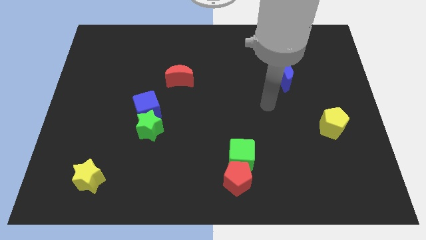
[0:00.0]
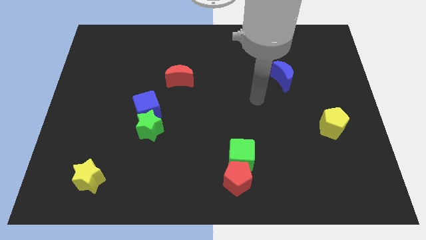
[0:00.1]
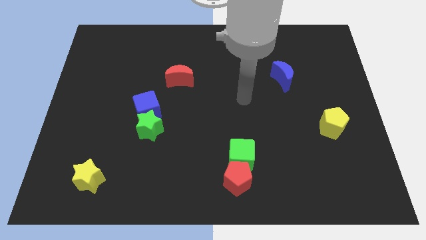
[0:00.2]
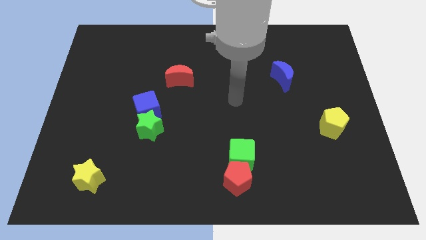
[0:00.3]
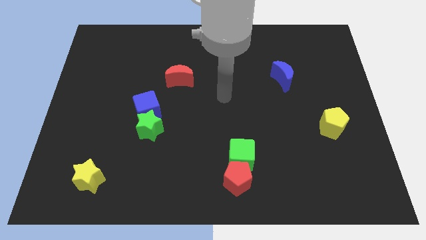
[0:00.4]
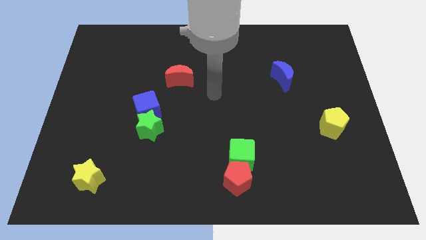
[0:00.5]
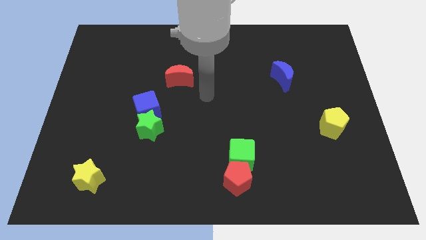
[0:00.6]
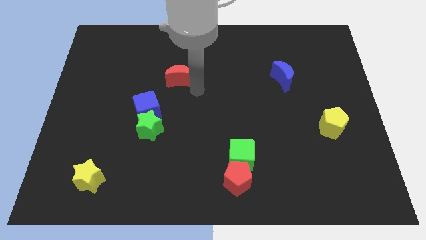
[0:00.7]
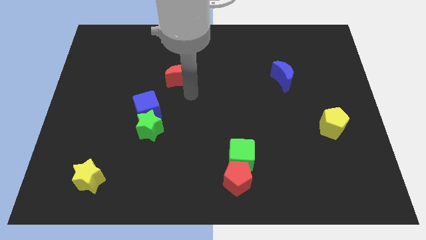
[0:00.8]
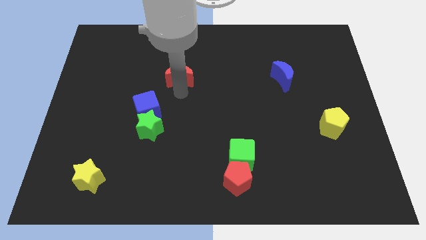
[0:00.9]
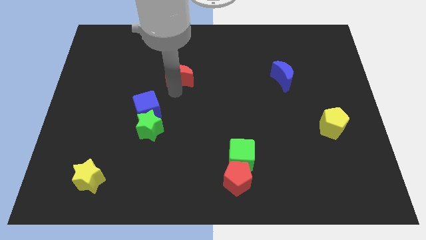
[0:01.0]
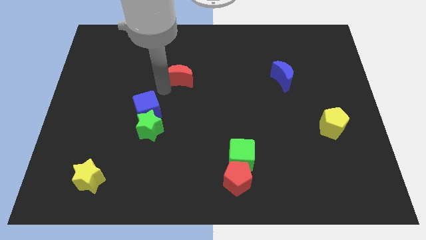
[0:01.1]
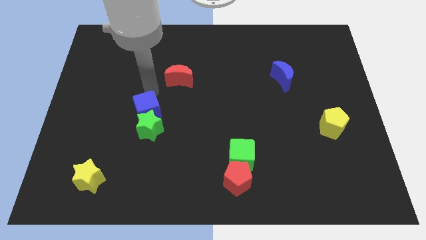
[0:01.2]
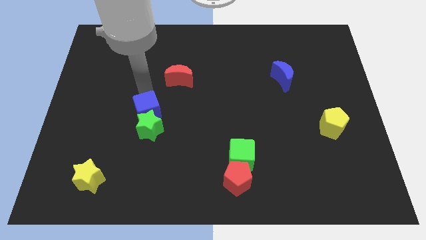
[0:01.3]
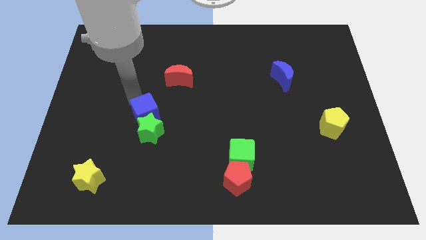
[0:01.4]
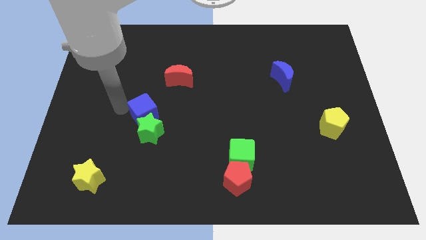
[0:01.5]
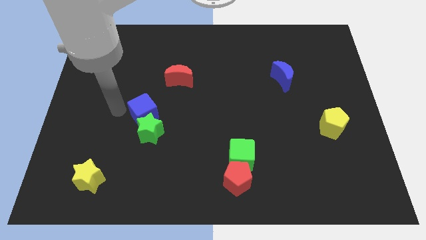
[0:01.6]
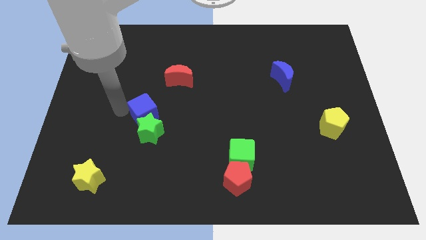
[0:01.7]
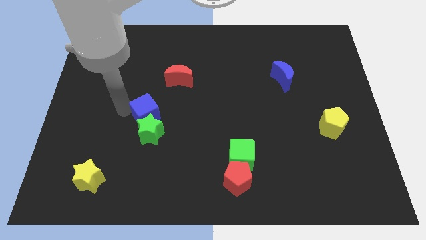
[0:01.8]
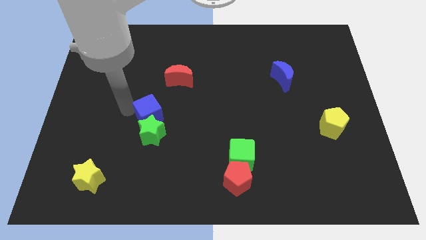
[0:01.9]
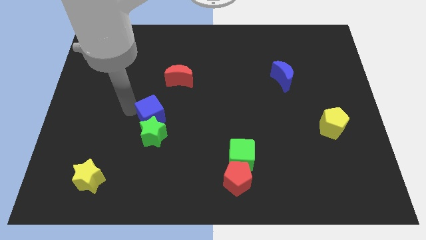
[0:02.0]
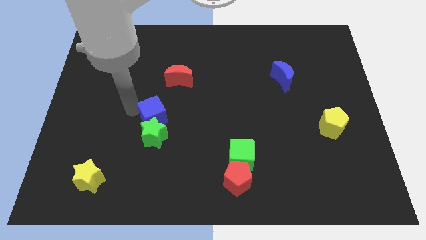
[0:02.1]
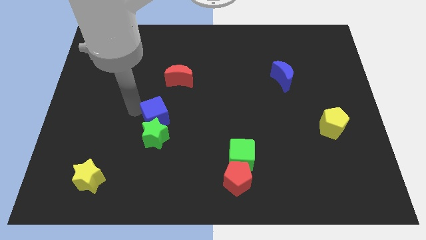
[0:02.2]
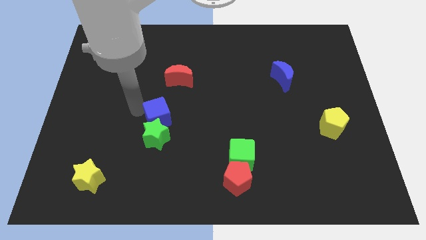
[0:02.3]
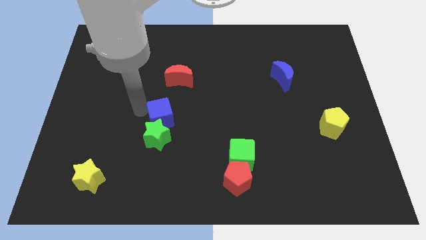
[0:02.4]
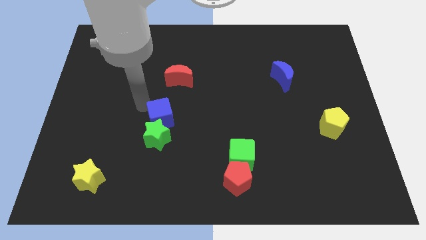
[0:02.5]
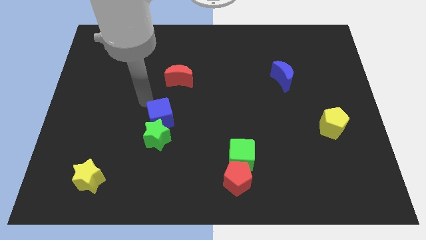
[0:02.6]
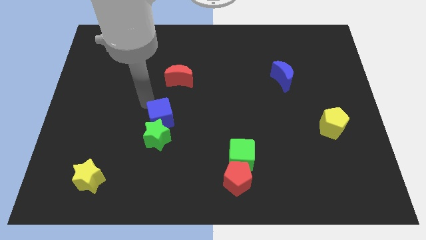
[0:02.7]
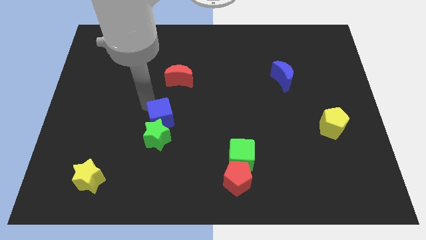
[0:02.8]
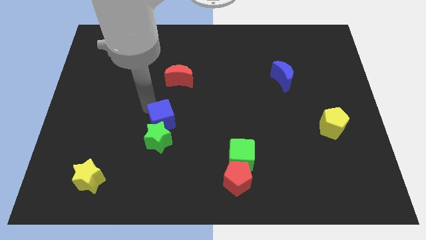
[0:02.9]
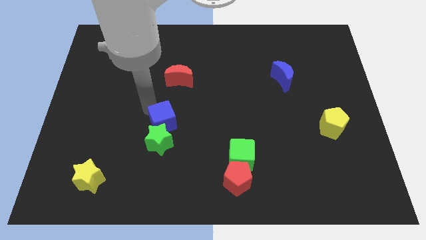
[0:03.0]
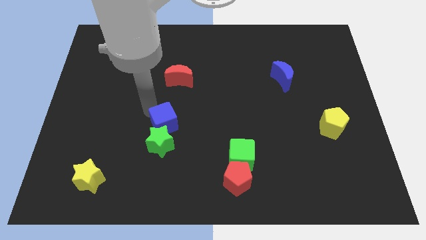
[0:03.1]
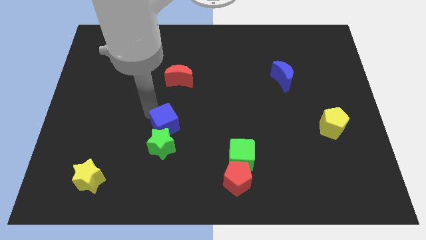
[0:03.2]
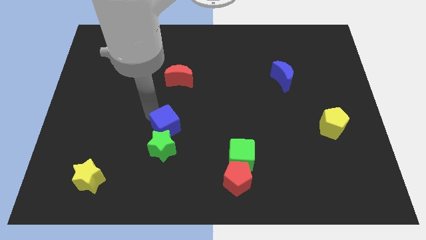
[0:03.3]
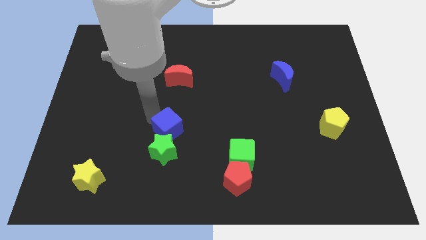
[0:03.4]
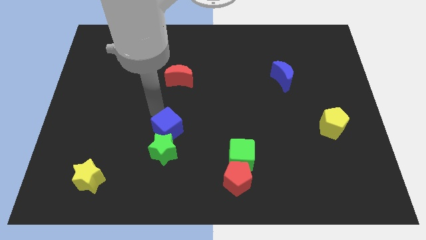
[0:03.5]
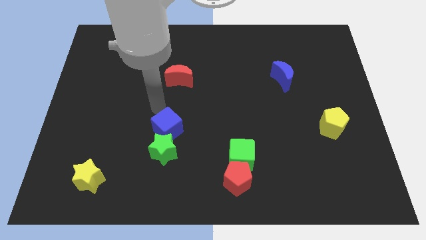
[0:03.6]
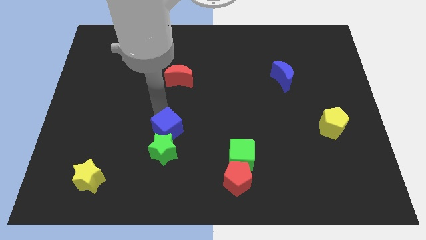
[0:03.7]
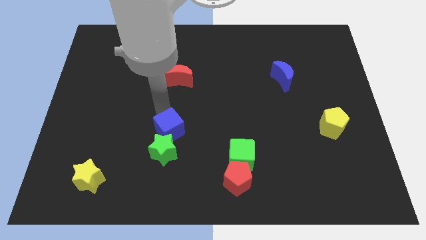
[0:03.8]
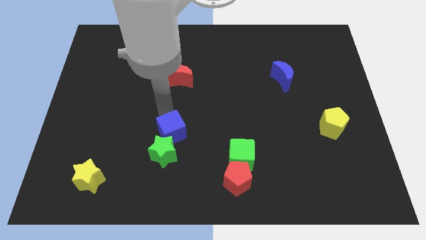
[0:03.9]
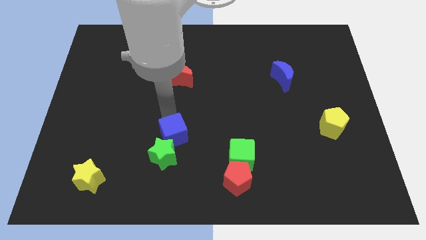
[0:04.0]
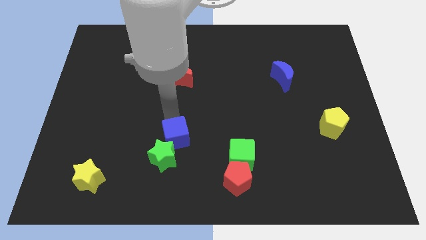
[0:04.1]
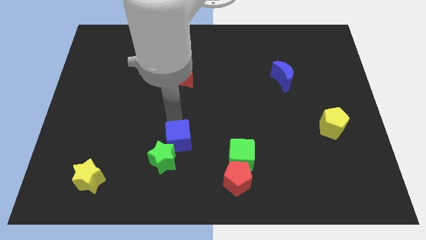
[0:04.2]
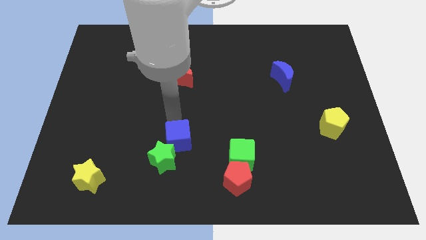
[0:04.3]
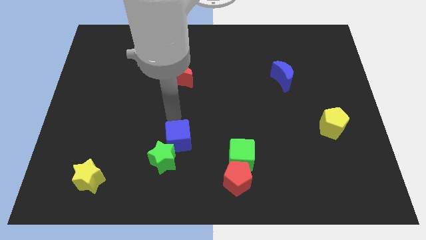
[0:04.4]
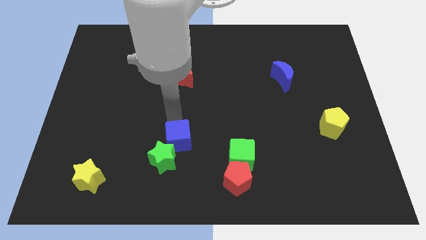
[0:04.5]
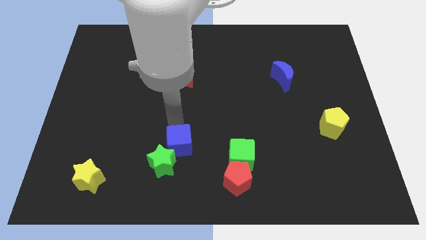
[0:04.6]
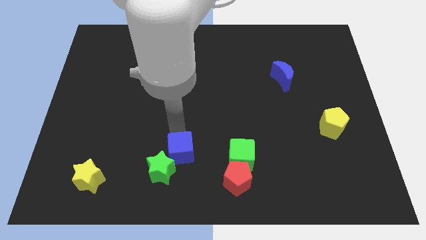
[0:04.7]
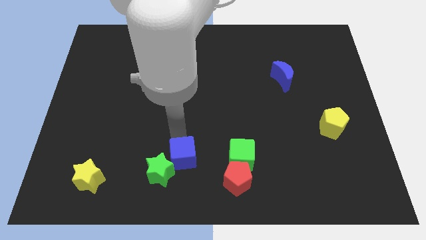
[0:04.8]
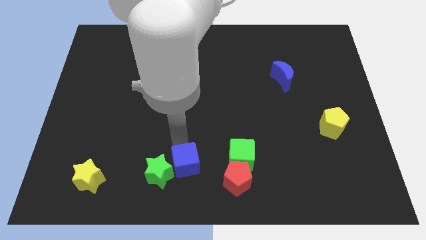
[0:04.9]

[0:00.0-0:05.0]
put the blue cube to the bottom side

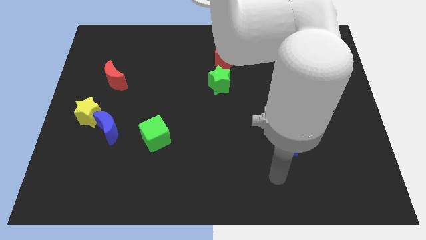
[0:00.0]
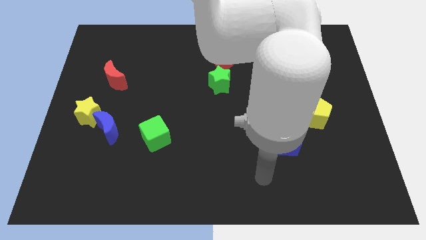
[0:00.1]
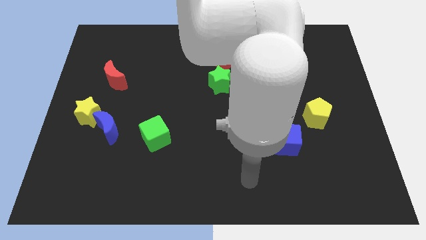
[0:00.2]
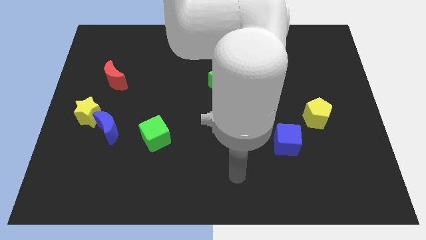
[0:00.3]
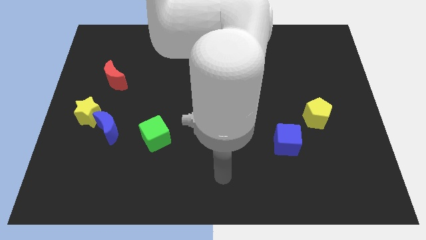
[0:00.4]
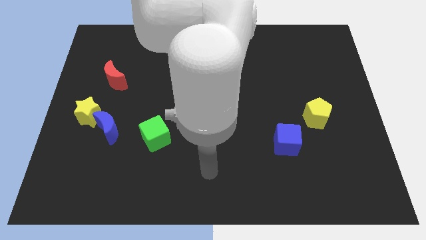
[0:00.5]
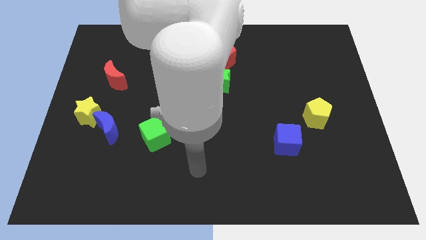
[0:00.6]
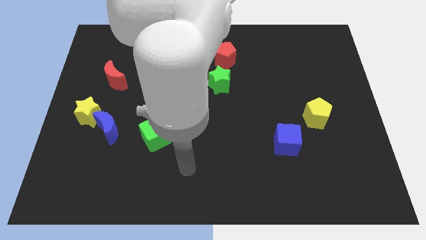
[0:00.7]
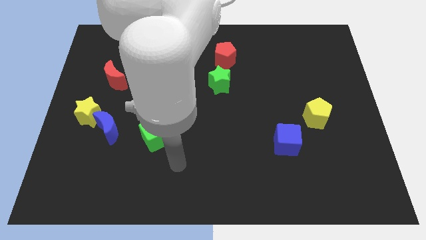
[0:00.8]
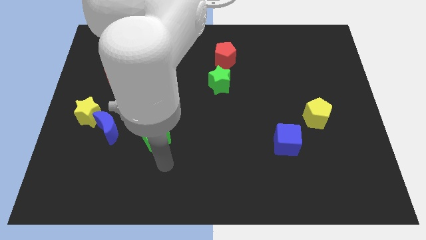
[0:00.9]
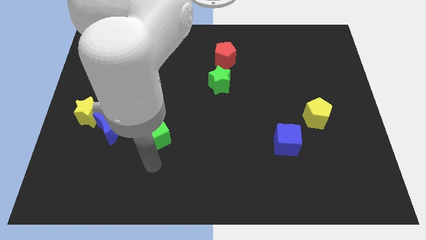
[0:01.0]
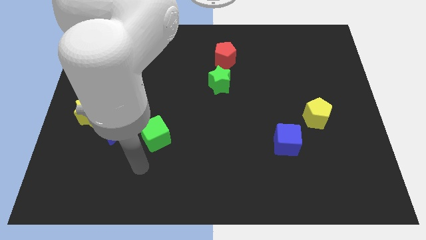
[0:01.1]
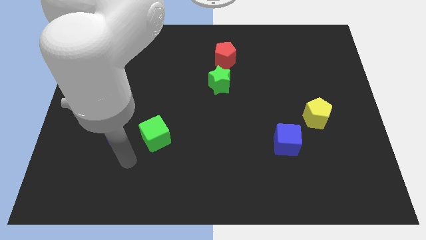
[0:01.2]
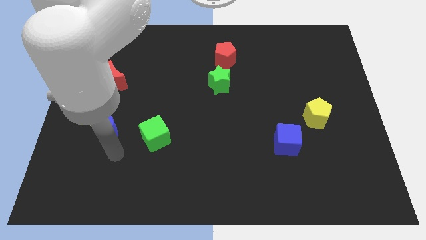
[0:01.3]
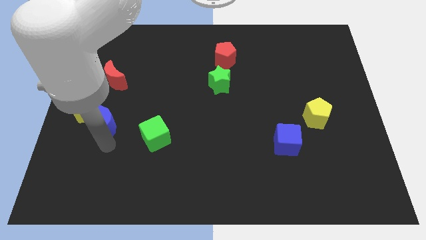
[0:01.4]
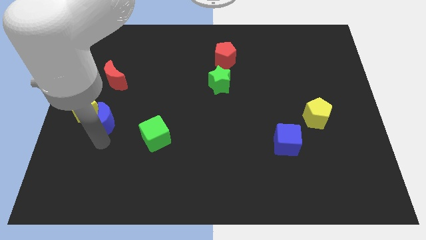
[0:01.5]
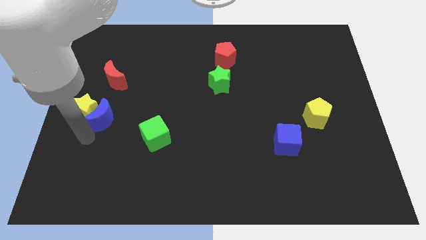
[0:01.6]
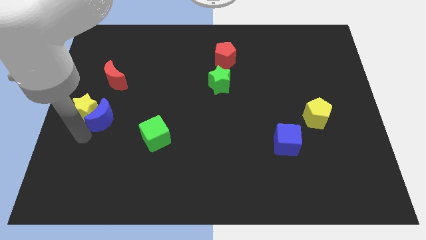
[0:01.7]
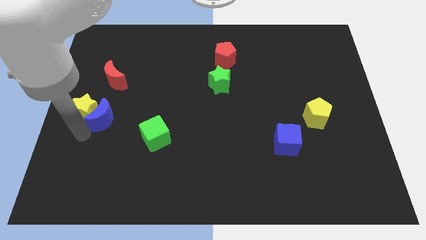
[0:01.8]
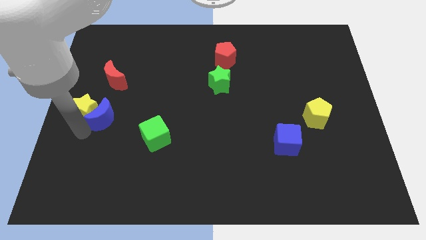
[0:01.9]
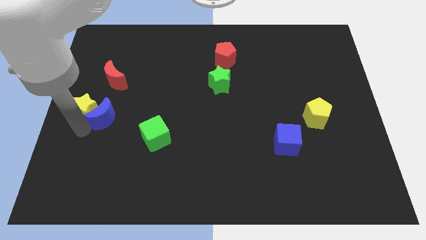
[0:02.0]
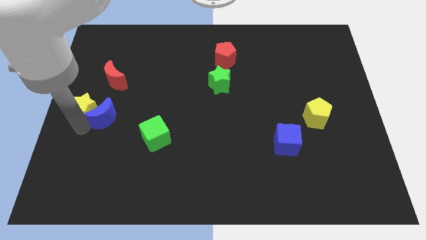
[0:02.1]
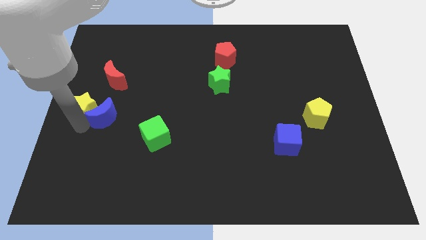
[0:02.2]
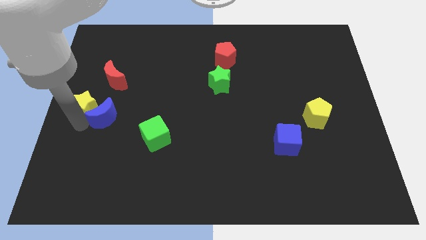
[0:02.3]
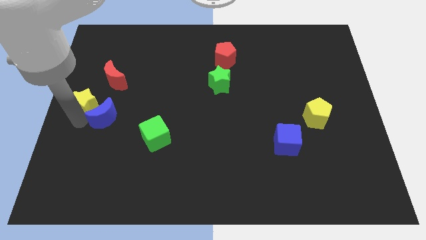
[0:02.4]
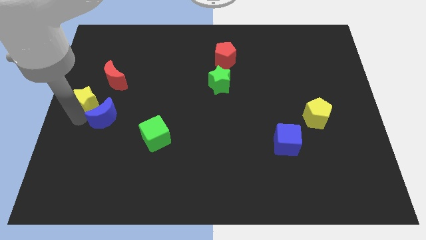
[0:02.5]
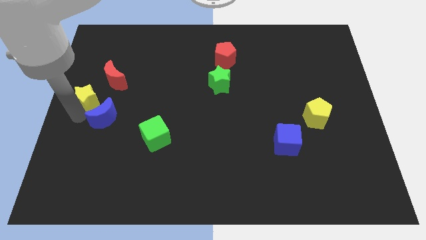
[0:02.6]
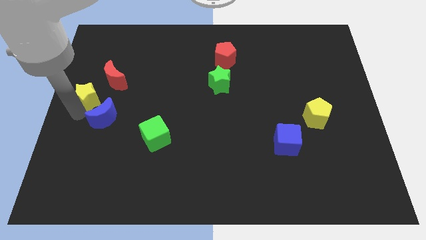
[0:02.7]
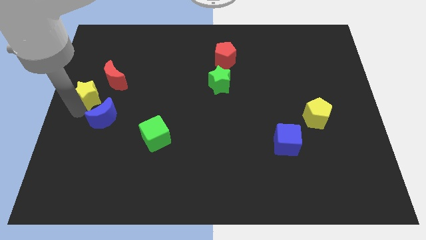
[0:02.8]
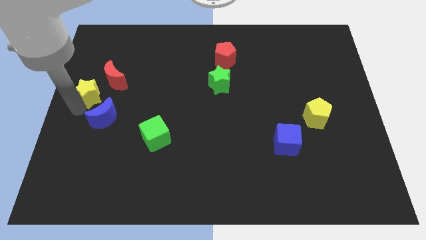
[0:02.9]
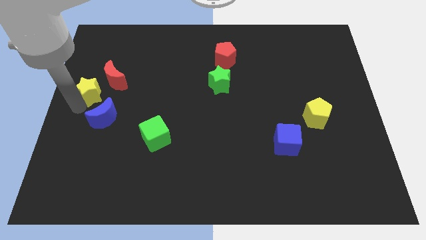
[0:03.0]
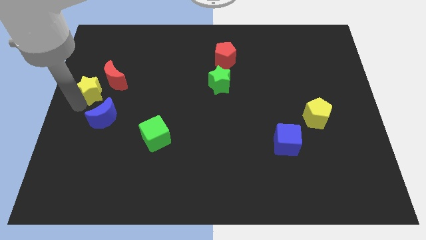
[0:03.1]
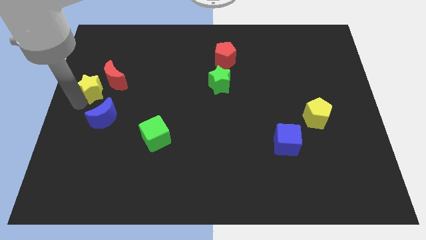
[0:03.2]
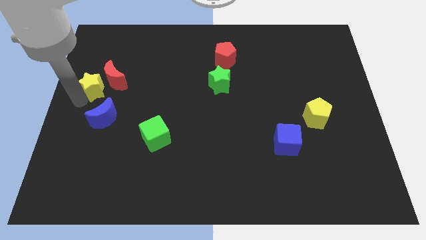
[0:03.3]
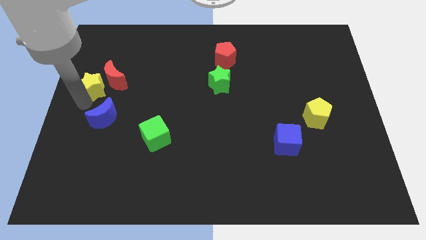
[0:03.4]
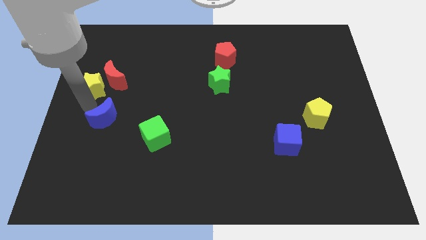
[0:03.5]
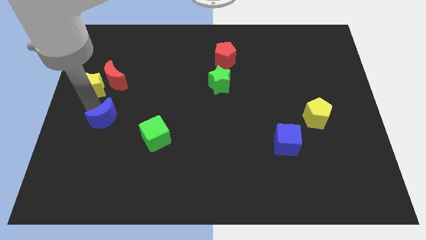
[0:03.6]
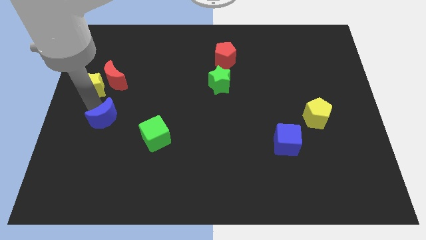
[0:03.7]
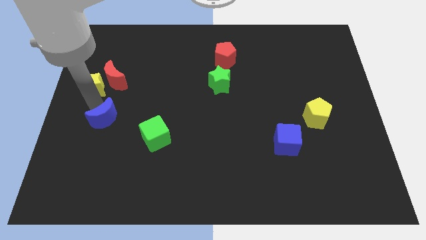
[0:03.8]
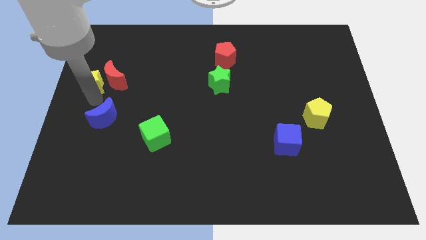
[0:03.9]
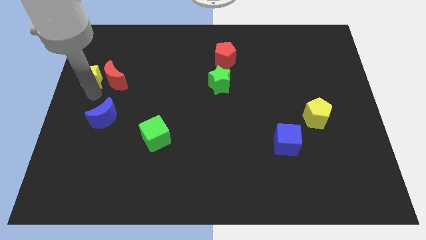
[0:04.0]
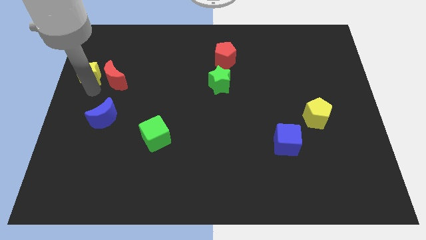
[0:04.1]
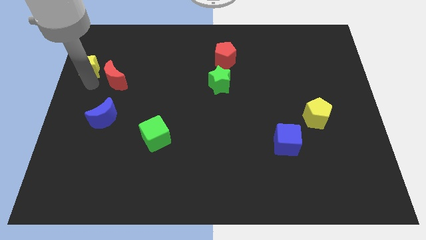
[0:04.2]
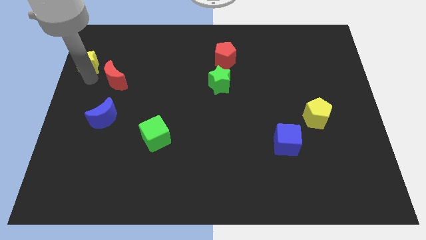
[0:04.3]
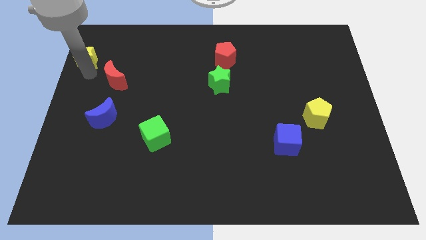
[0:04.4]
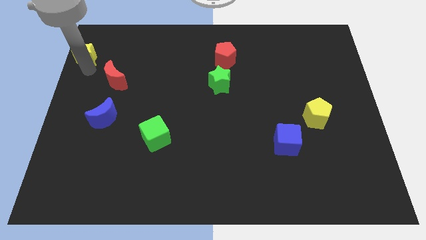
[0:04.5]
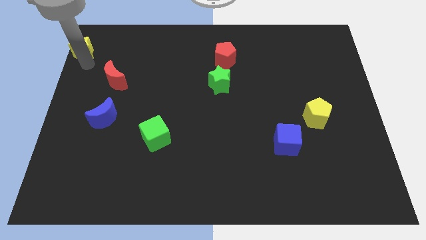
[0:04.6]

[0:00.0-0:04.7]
move the yellow star to the top left corner
